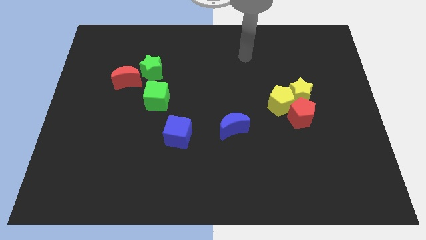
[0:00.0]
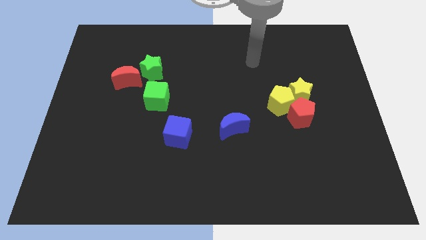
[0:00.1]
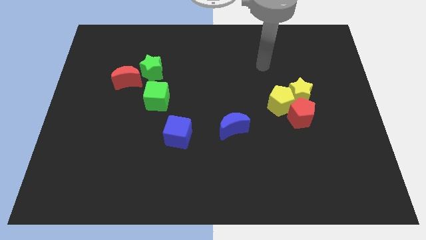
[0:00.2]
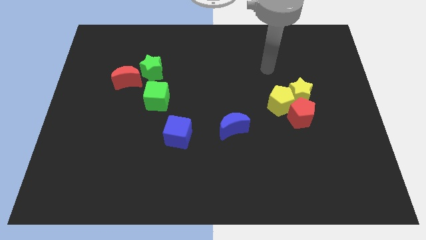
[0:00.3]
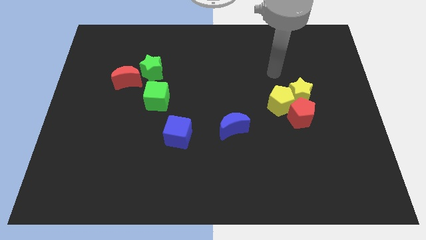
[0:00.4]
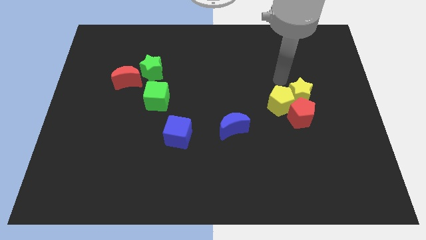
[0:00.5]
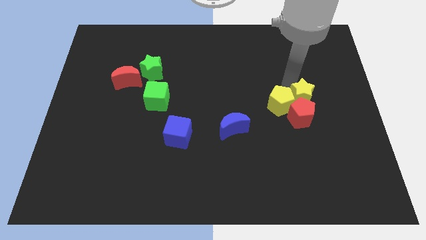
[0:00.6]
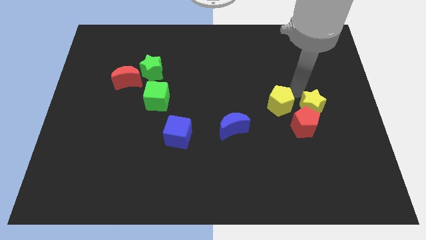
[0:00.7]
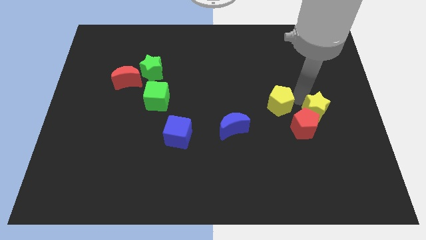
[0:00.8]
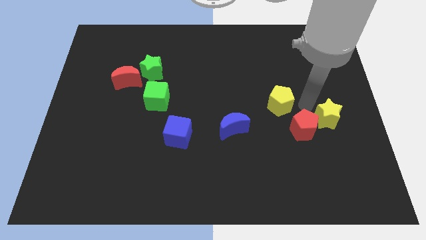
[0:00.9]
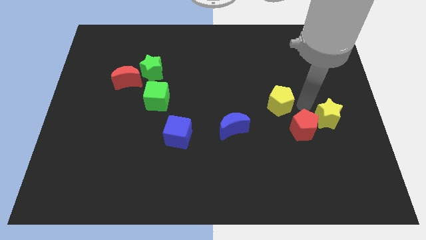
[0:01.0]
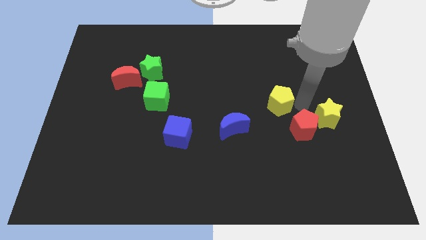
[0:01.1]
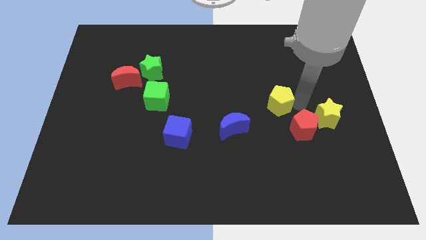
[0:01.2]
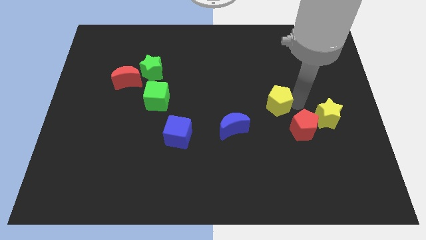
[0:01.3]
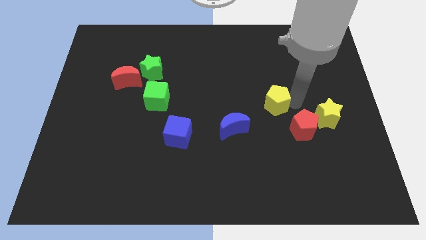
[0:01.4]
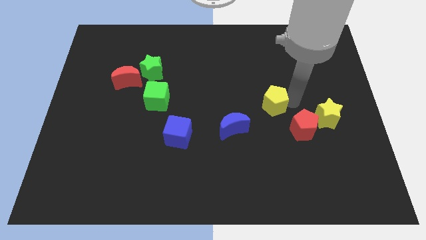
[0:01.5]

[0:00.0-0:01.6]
move the yellow pentagon away from the yellow star and red pentagon

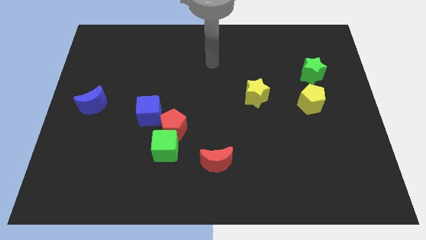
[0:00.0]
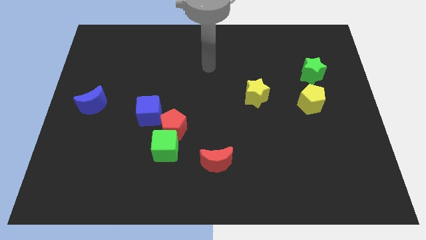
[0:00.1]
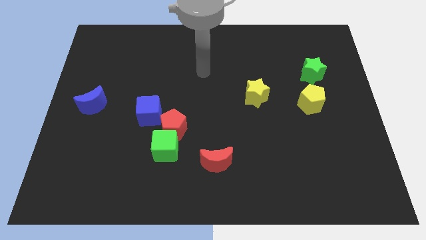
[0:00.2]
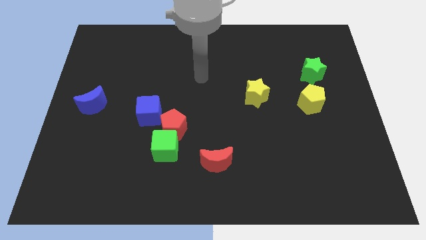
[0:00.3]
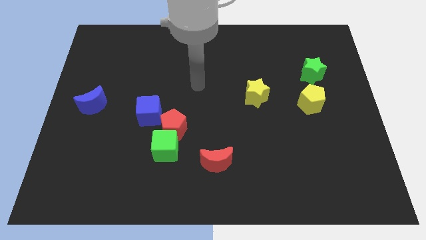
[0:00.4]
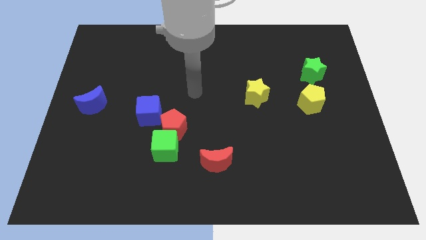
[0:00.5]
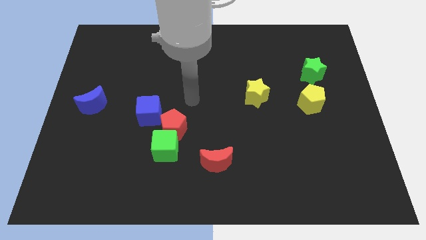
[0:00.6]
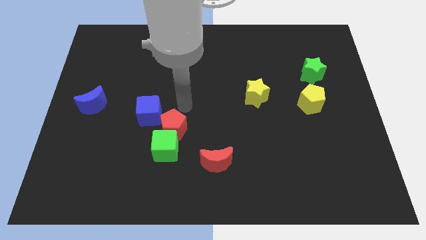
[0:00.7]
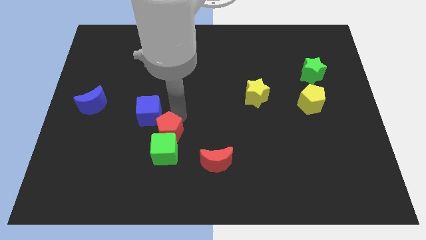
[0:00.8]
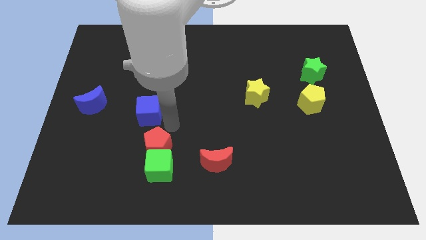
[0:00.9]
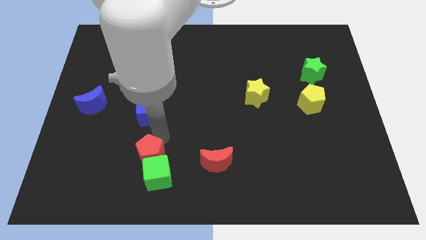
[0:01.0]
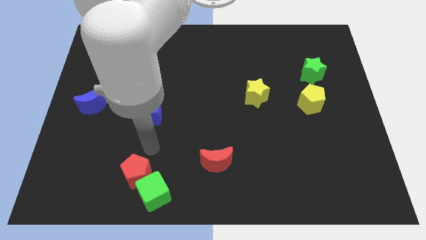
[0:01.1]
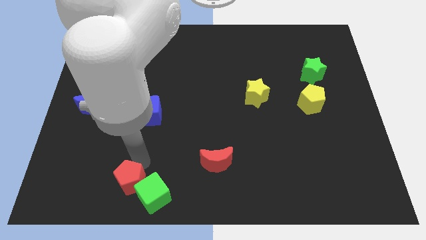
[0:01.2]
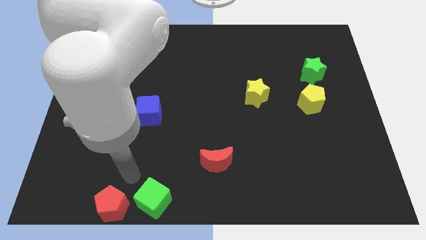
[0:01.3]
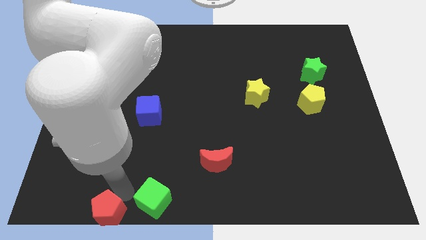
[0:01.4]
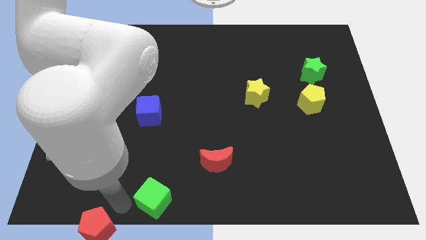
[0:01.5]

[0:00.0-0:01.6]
move the green cube away from the red pentagon

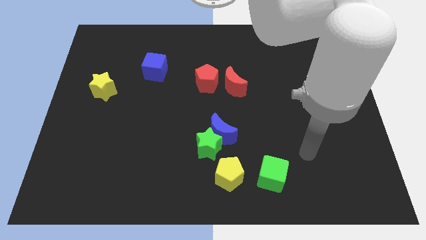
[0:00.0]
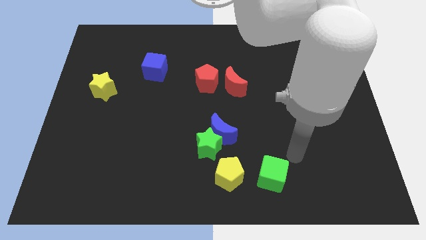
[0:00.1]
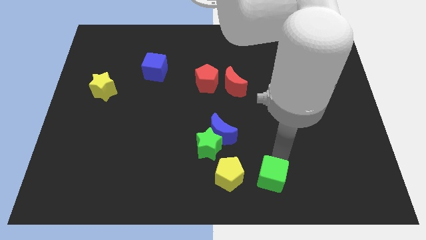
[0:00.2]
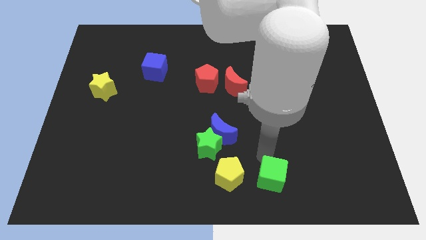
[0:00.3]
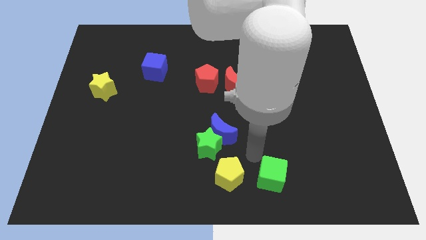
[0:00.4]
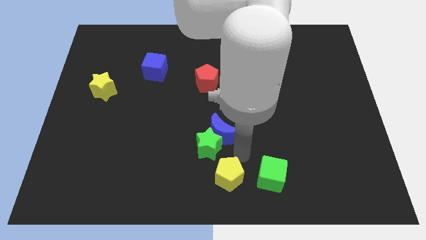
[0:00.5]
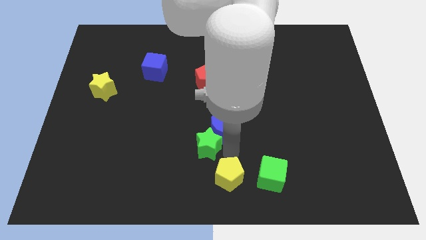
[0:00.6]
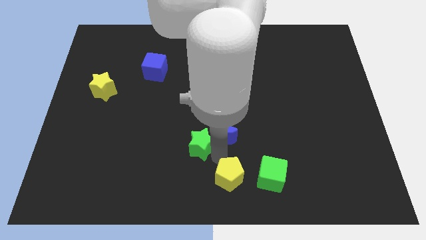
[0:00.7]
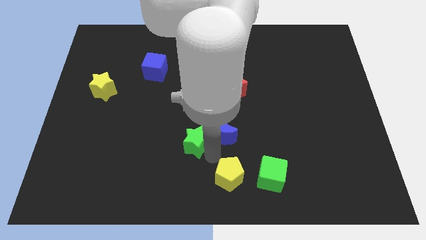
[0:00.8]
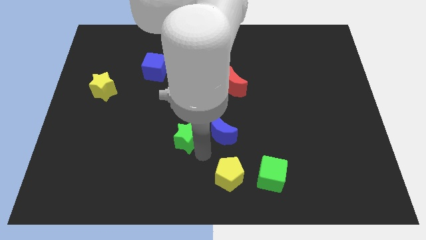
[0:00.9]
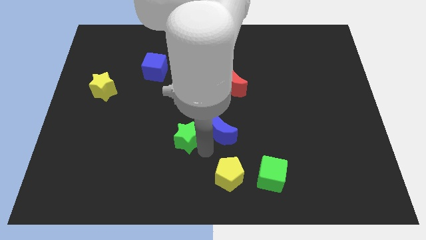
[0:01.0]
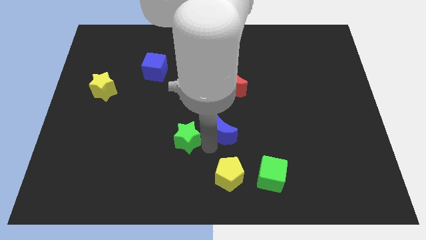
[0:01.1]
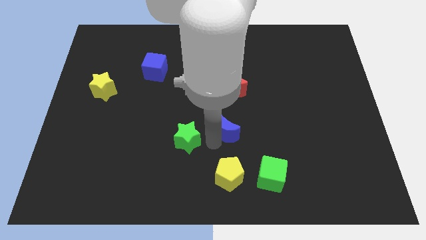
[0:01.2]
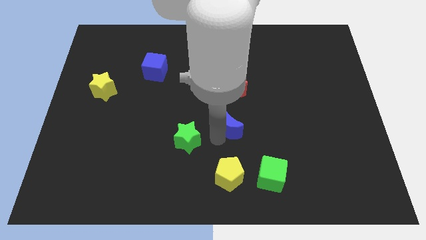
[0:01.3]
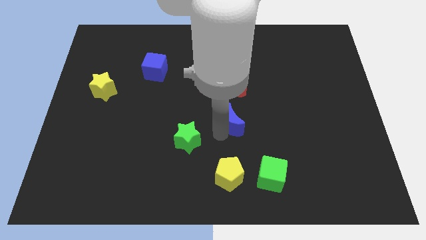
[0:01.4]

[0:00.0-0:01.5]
move the blue moon away from the green star

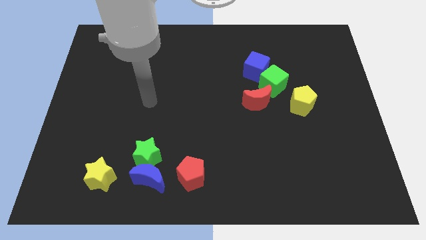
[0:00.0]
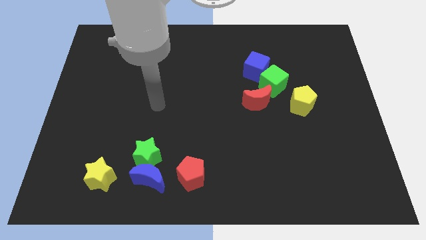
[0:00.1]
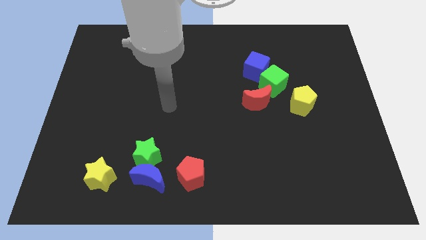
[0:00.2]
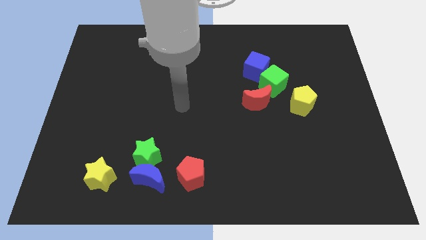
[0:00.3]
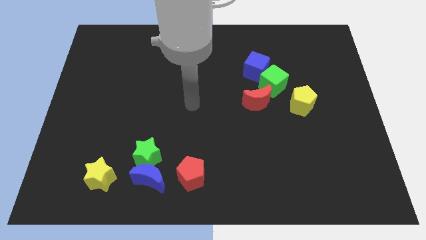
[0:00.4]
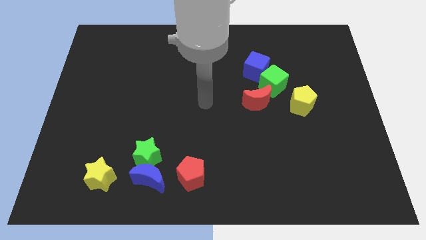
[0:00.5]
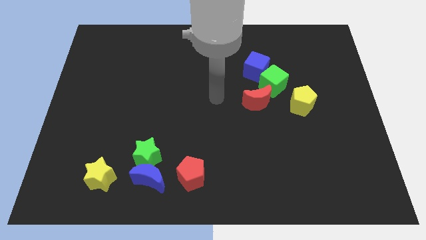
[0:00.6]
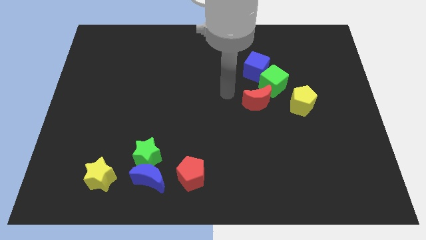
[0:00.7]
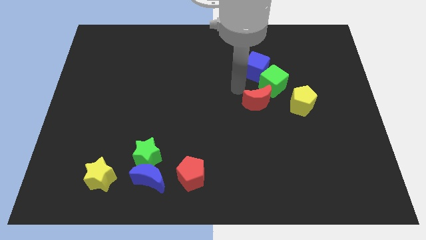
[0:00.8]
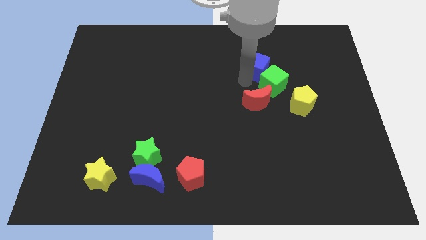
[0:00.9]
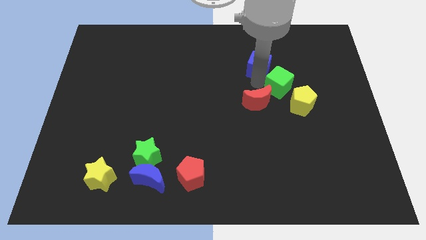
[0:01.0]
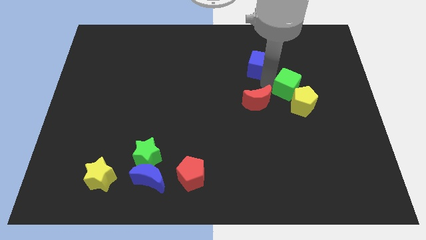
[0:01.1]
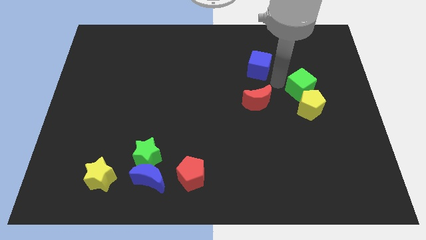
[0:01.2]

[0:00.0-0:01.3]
separate the blue cube from the green cube

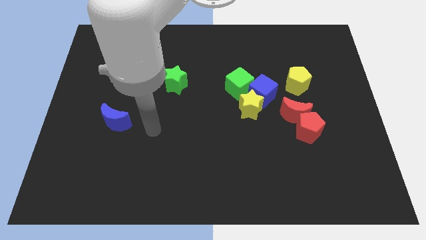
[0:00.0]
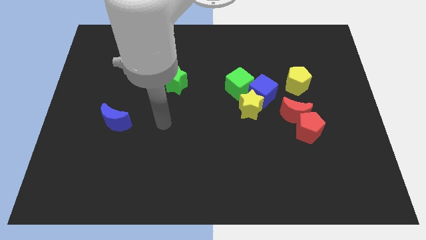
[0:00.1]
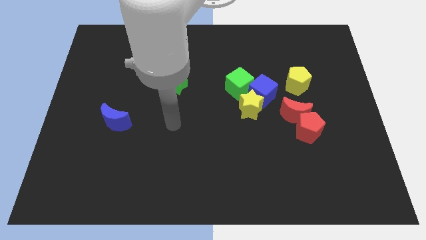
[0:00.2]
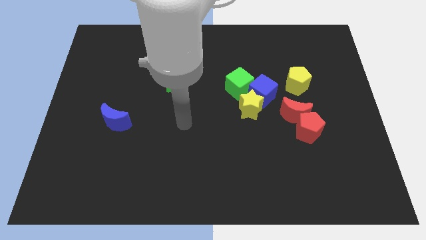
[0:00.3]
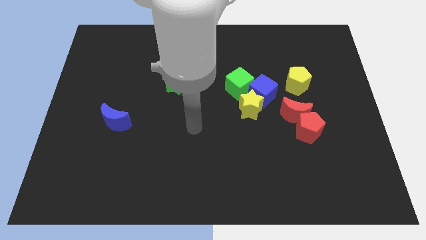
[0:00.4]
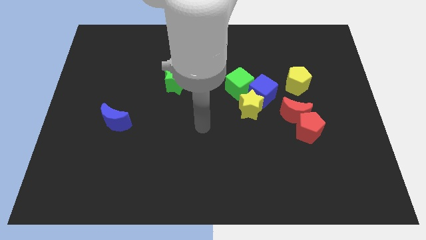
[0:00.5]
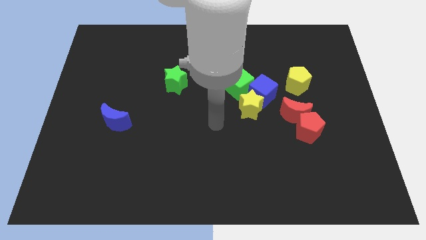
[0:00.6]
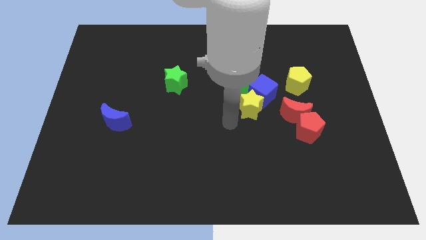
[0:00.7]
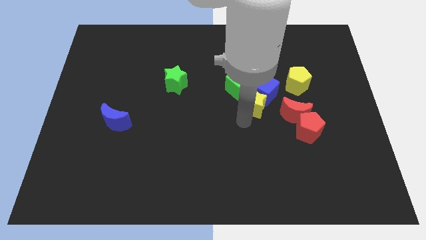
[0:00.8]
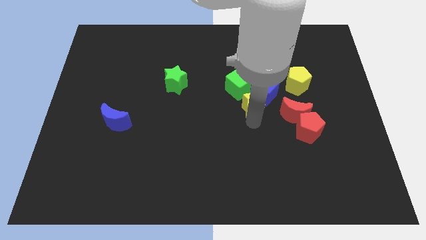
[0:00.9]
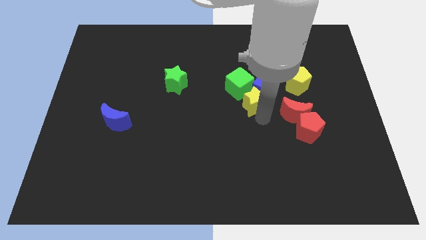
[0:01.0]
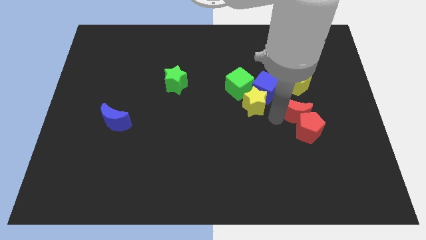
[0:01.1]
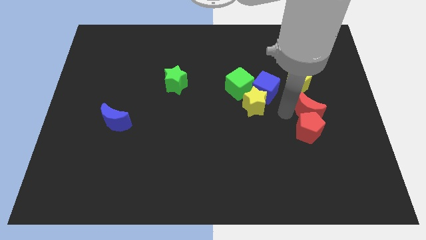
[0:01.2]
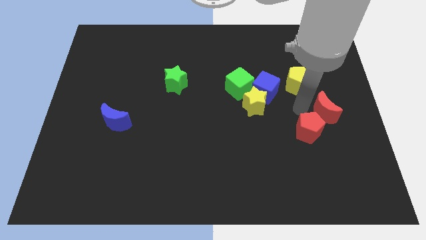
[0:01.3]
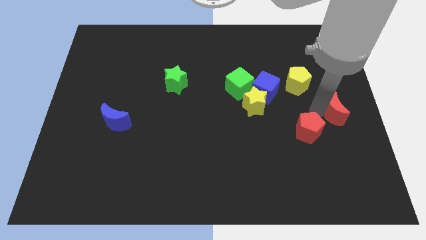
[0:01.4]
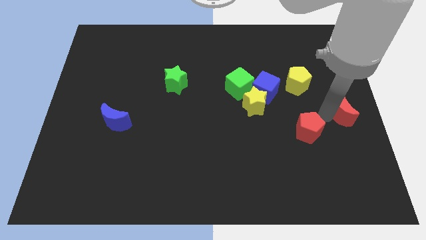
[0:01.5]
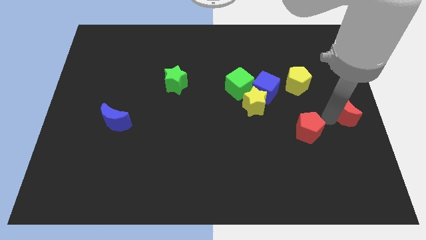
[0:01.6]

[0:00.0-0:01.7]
separate the red pentagon from the red moon

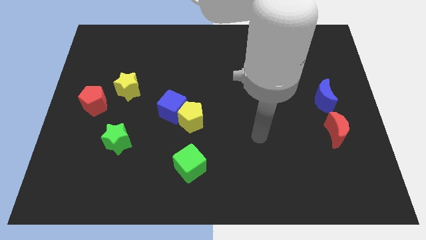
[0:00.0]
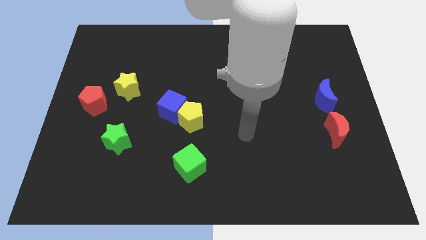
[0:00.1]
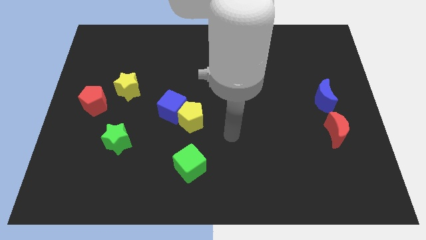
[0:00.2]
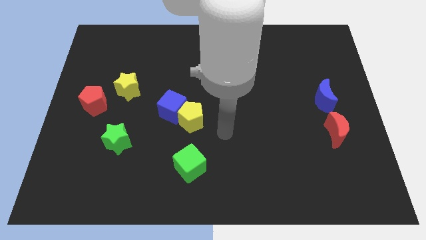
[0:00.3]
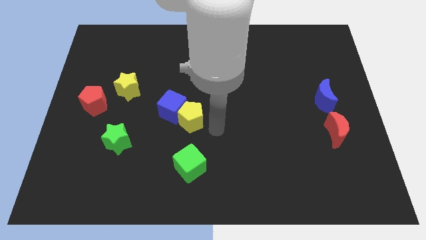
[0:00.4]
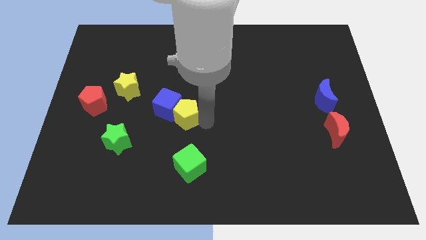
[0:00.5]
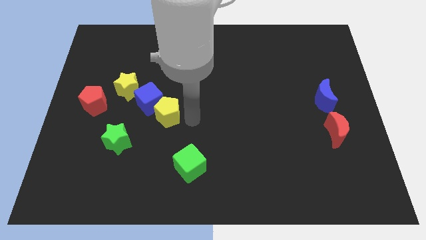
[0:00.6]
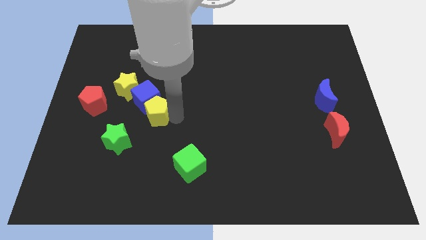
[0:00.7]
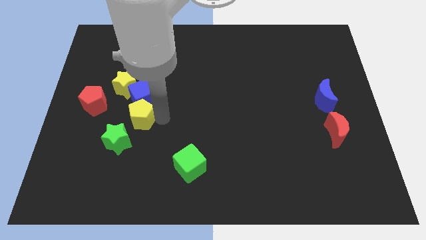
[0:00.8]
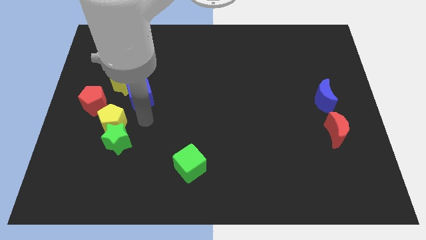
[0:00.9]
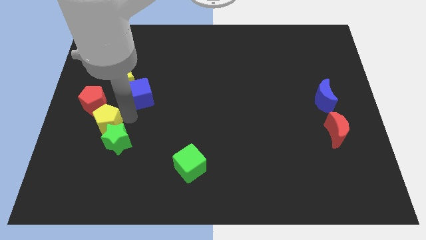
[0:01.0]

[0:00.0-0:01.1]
separate the blue cube from the yellow pentagon

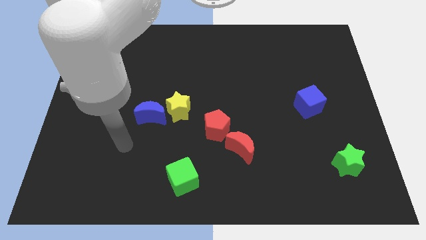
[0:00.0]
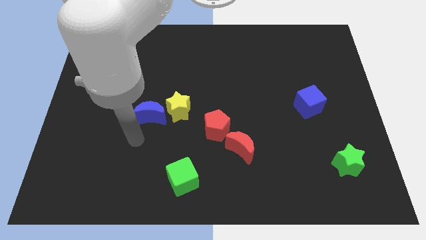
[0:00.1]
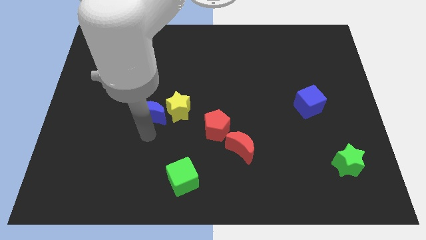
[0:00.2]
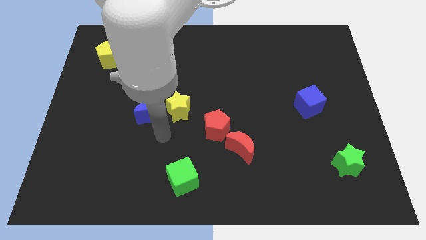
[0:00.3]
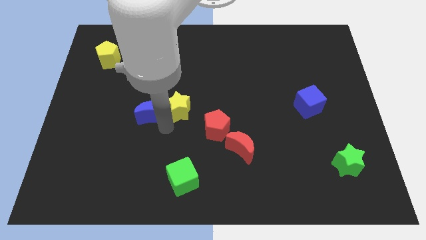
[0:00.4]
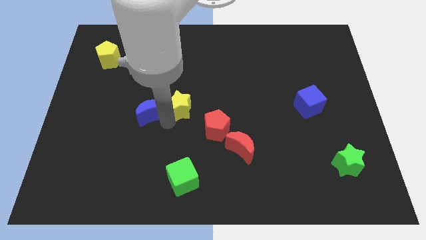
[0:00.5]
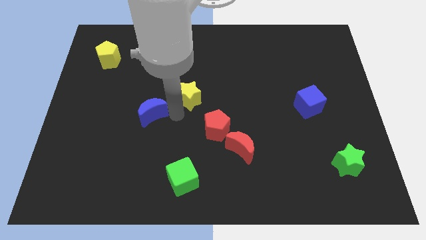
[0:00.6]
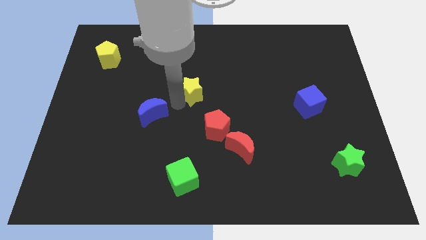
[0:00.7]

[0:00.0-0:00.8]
pull the blue moon apart from the yellow star
